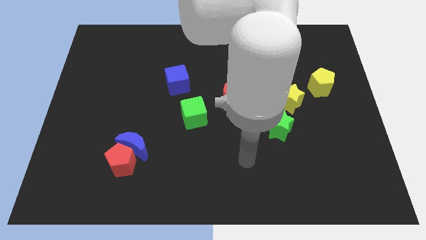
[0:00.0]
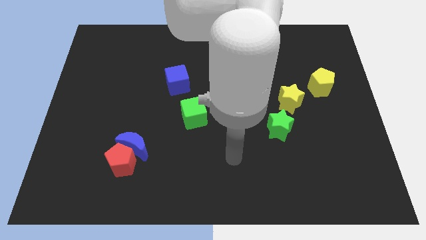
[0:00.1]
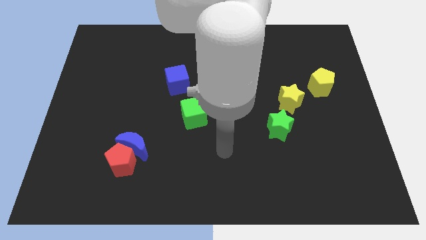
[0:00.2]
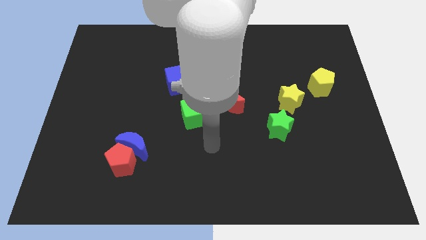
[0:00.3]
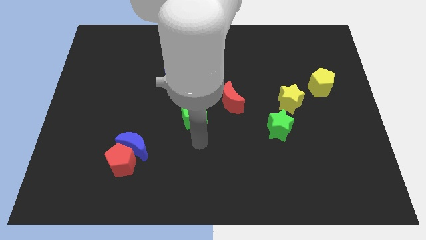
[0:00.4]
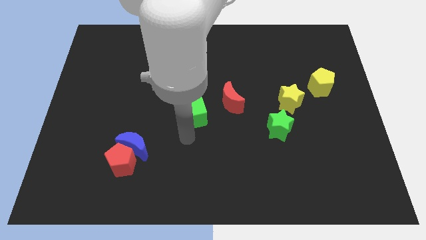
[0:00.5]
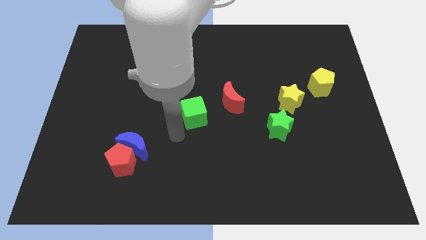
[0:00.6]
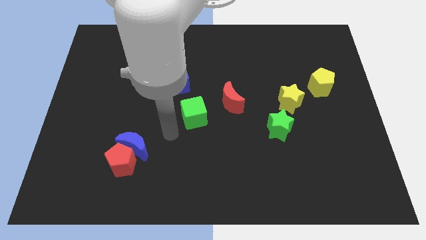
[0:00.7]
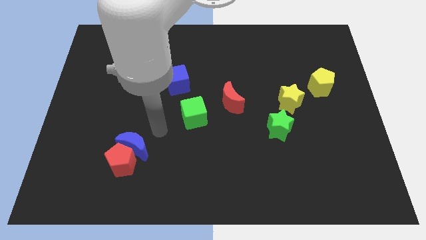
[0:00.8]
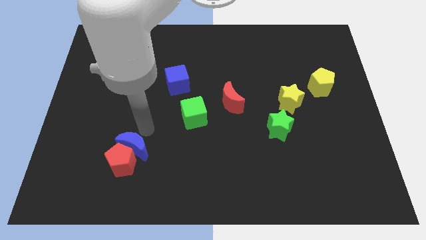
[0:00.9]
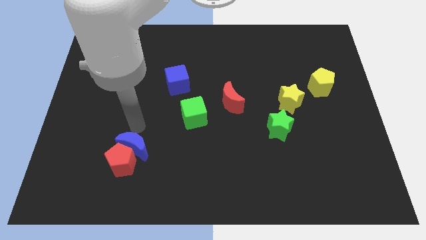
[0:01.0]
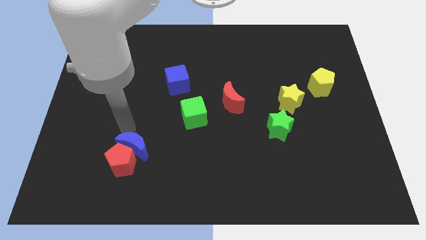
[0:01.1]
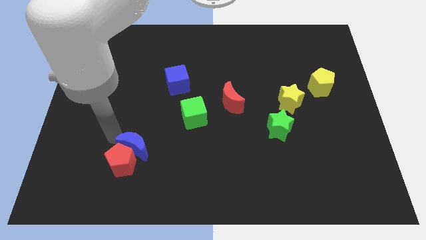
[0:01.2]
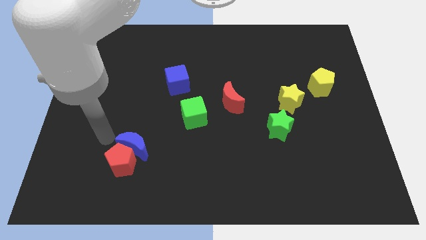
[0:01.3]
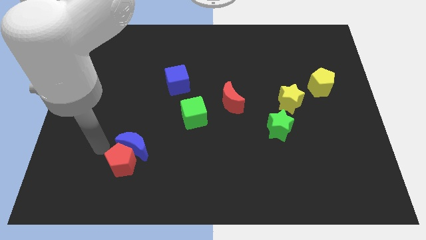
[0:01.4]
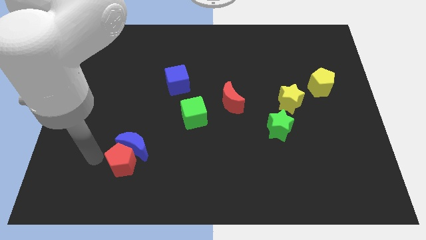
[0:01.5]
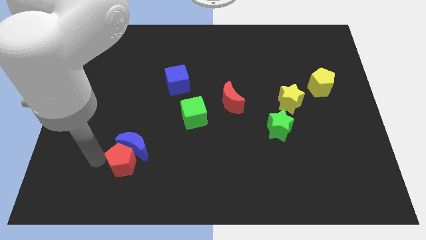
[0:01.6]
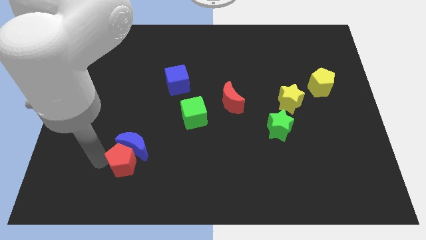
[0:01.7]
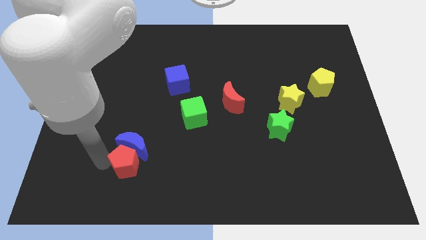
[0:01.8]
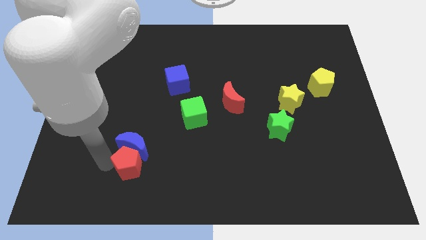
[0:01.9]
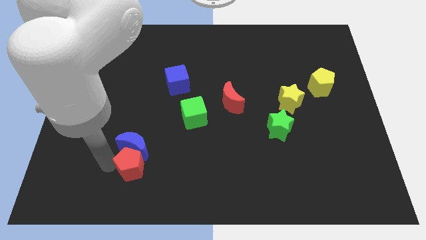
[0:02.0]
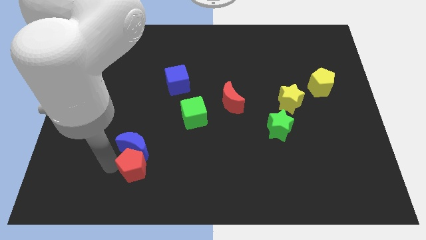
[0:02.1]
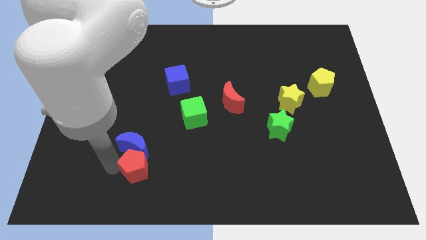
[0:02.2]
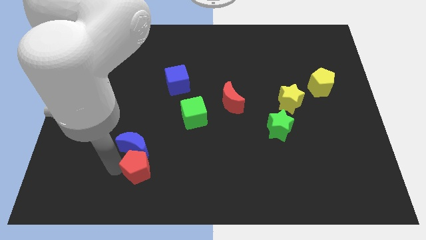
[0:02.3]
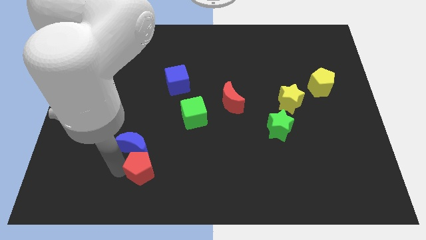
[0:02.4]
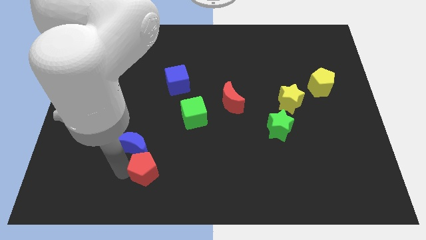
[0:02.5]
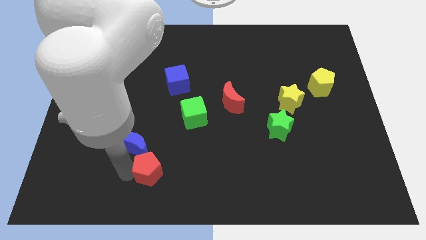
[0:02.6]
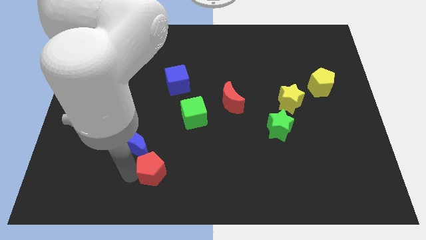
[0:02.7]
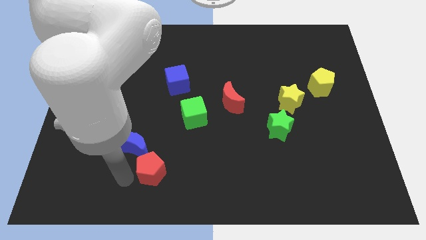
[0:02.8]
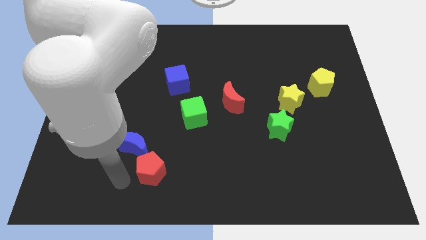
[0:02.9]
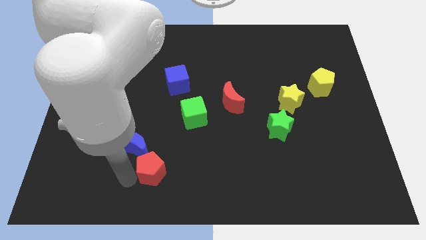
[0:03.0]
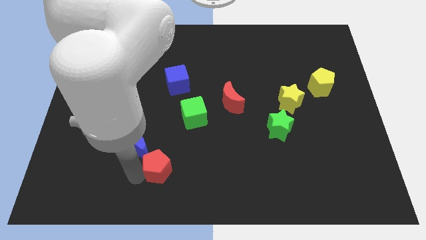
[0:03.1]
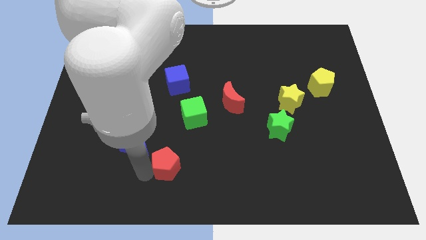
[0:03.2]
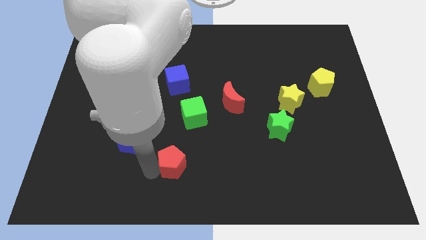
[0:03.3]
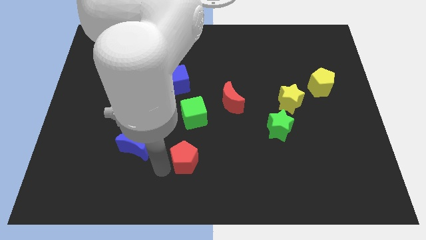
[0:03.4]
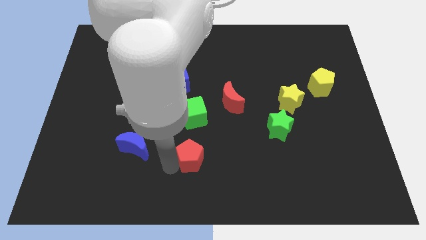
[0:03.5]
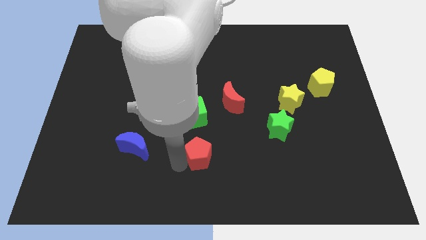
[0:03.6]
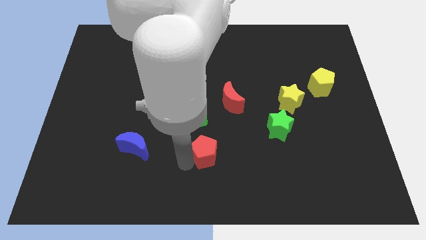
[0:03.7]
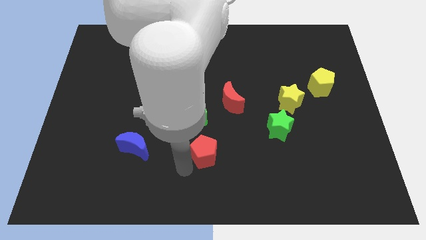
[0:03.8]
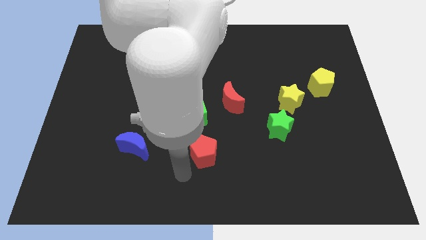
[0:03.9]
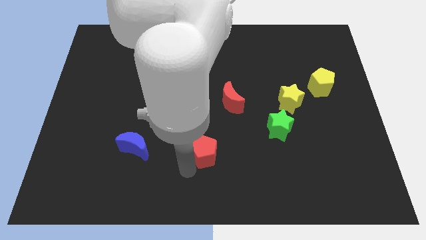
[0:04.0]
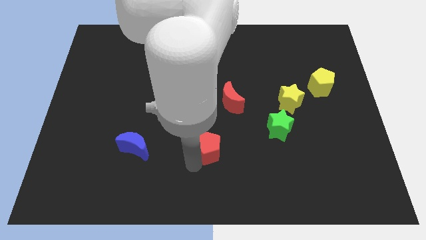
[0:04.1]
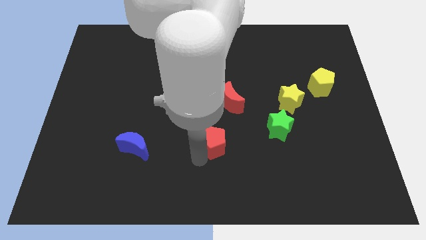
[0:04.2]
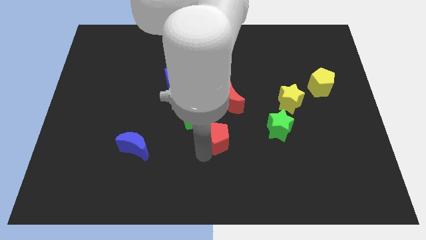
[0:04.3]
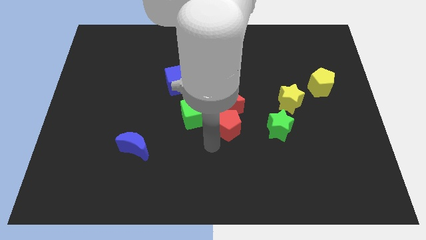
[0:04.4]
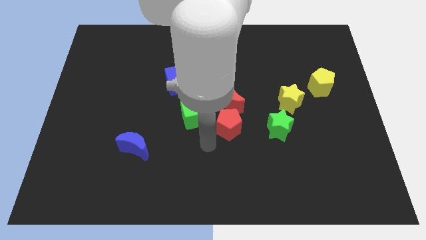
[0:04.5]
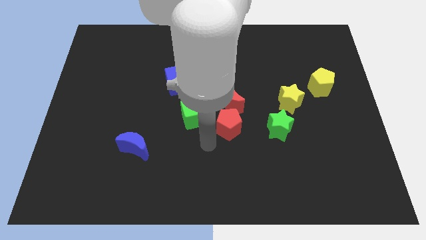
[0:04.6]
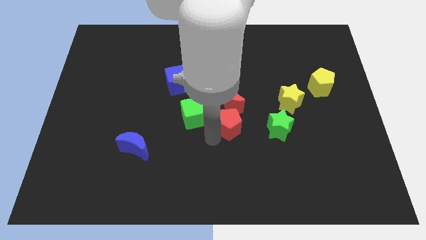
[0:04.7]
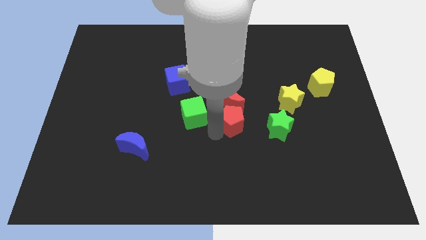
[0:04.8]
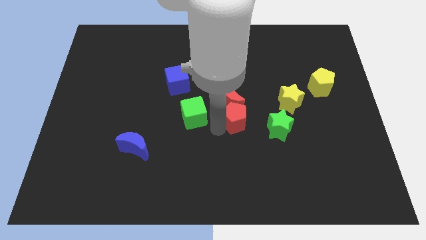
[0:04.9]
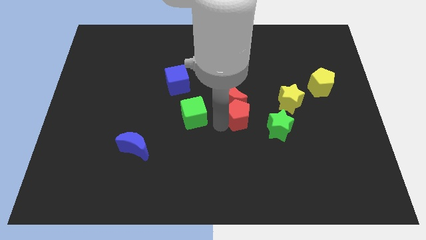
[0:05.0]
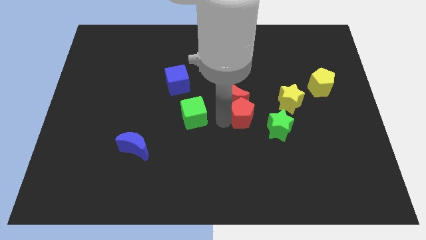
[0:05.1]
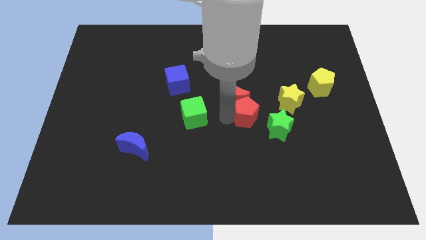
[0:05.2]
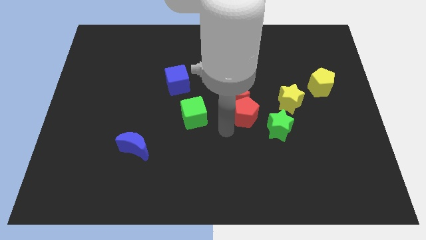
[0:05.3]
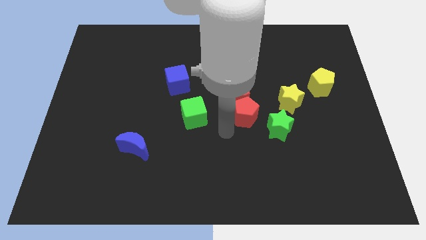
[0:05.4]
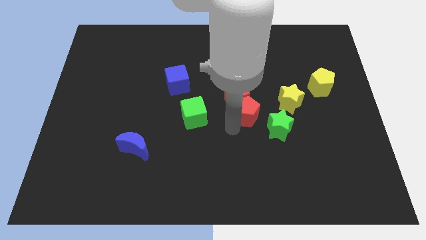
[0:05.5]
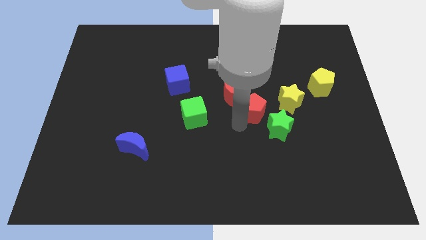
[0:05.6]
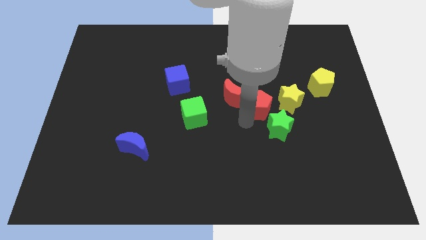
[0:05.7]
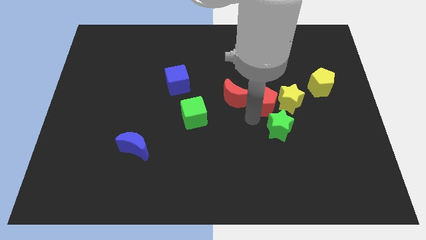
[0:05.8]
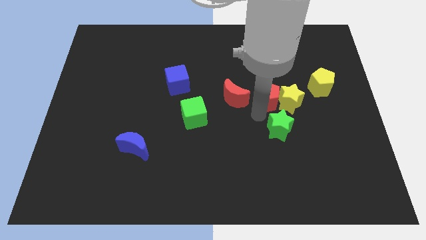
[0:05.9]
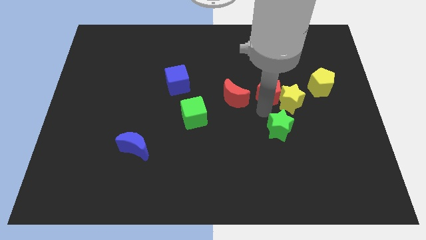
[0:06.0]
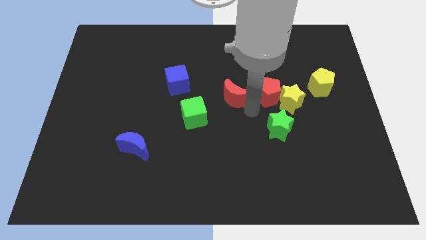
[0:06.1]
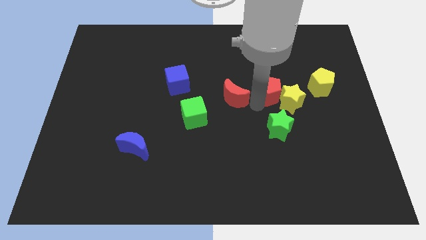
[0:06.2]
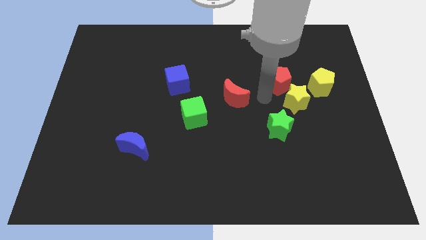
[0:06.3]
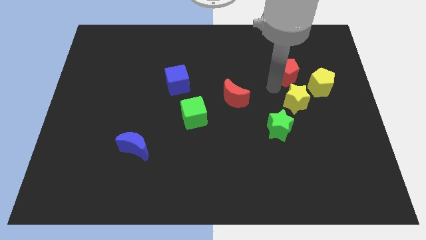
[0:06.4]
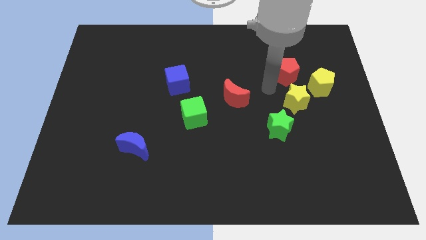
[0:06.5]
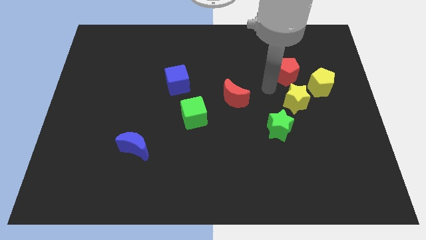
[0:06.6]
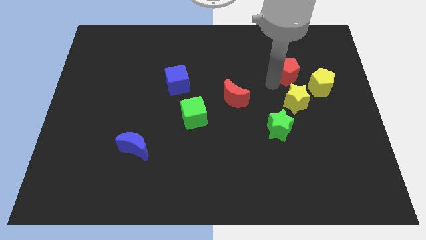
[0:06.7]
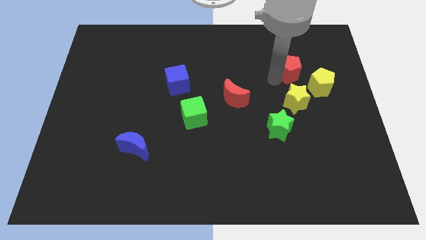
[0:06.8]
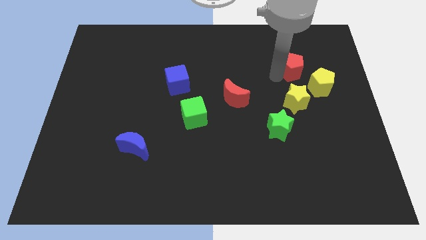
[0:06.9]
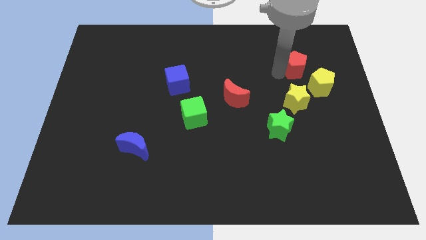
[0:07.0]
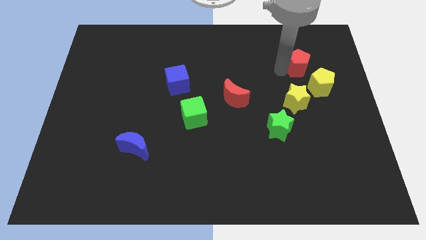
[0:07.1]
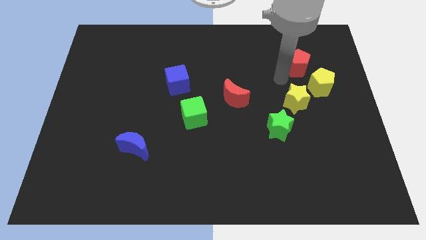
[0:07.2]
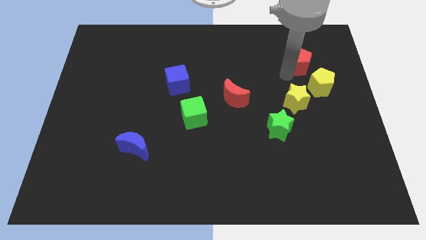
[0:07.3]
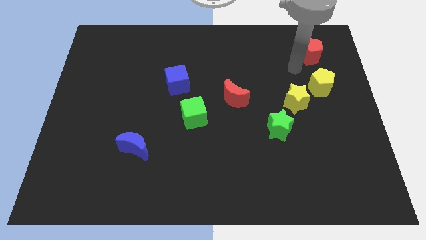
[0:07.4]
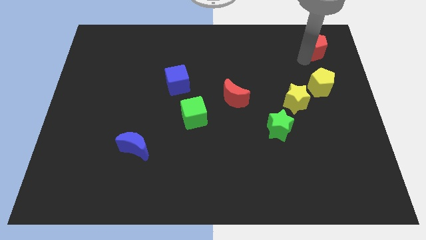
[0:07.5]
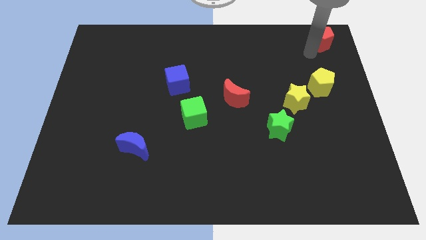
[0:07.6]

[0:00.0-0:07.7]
put the red pentagon to the top right corner
